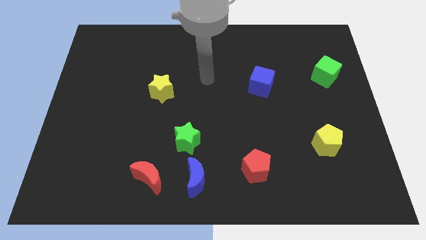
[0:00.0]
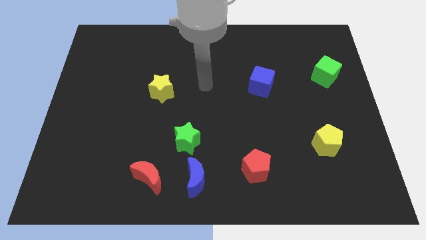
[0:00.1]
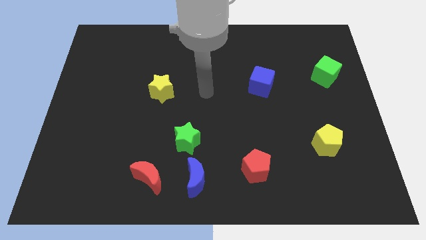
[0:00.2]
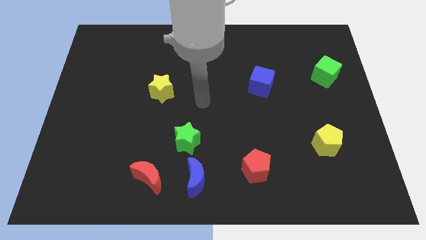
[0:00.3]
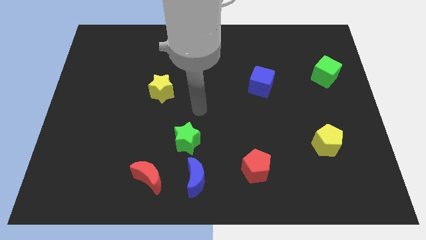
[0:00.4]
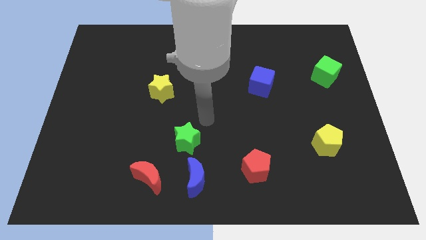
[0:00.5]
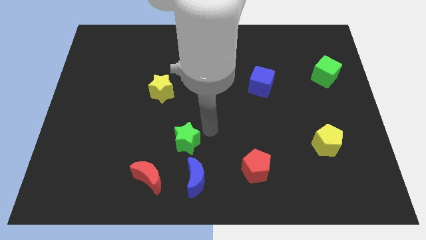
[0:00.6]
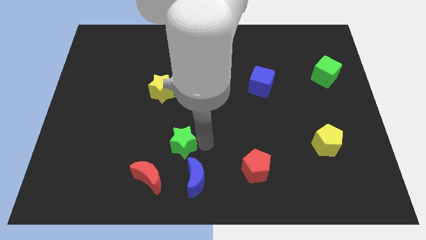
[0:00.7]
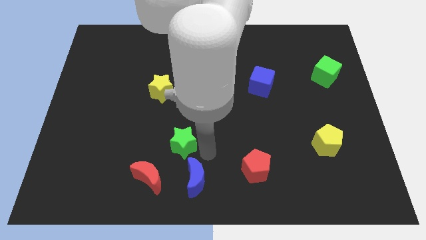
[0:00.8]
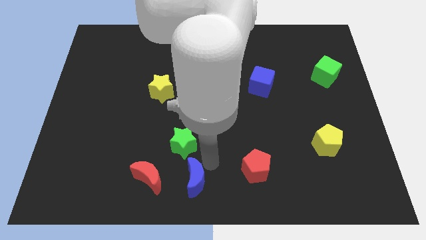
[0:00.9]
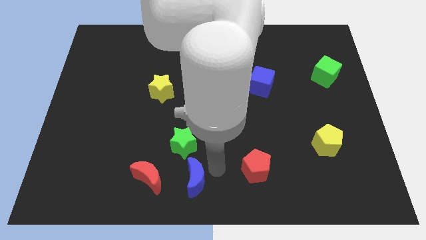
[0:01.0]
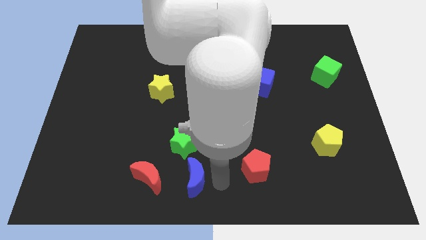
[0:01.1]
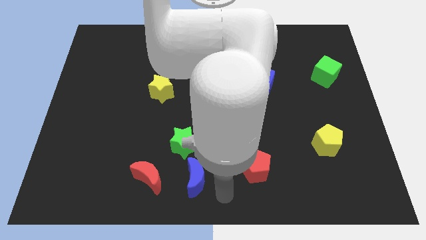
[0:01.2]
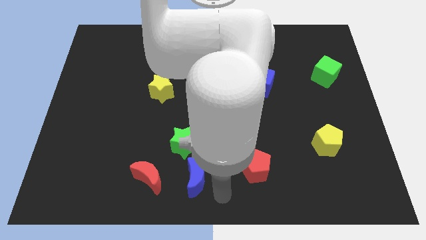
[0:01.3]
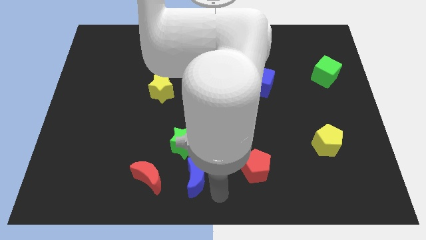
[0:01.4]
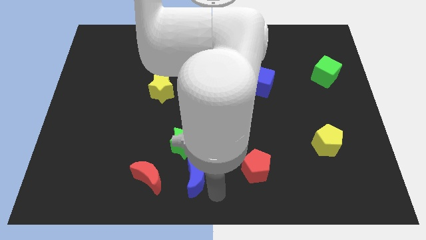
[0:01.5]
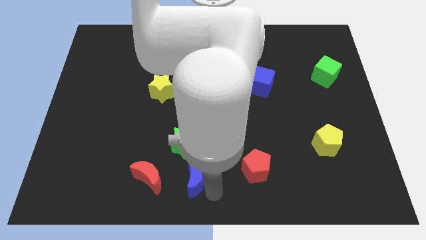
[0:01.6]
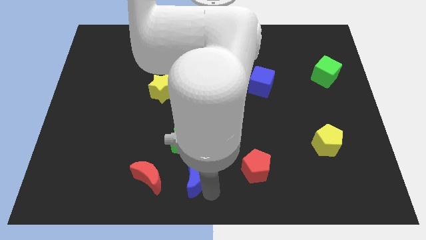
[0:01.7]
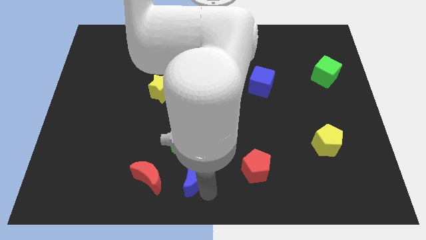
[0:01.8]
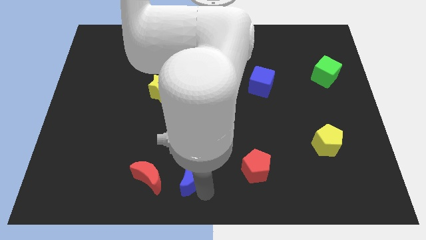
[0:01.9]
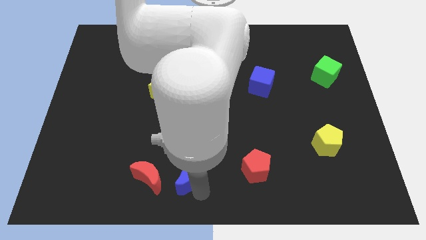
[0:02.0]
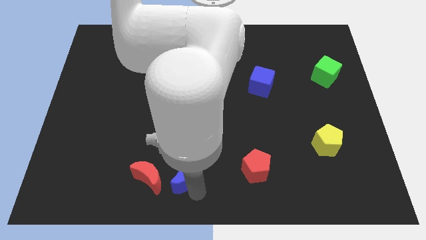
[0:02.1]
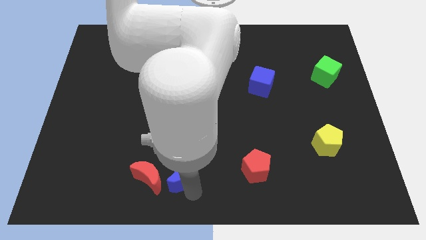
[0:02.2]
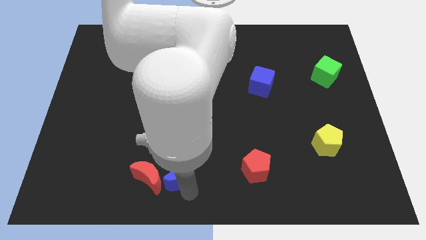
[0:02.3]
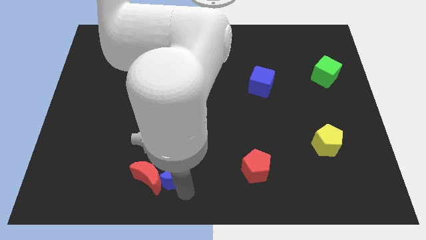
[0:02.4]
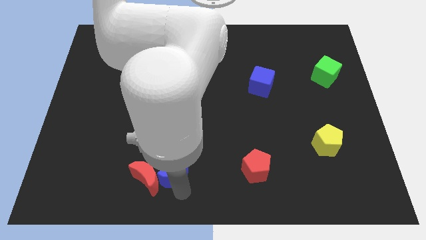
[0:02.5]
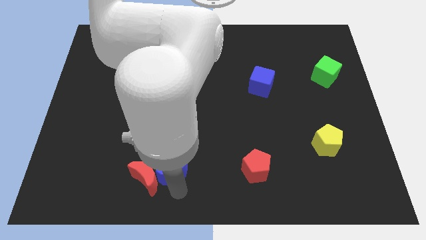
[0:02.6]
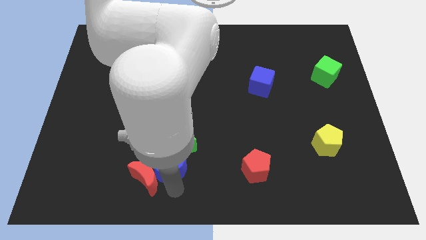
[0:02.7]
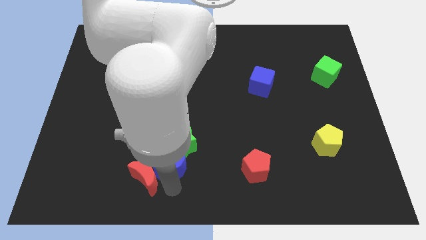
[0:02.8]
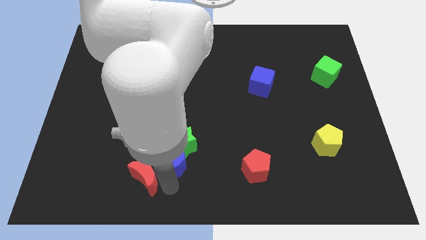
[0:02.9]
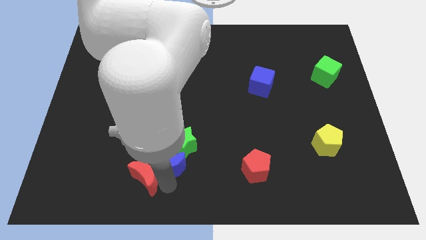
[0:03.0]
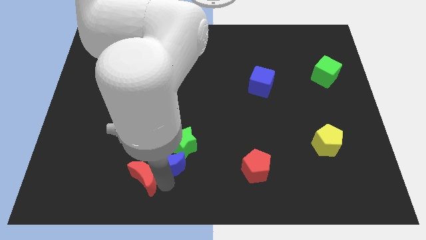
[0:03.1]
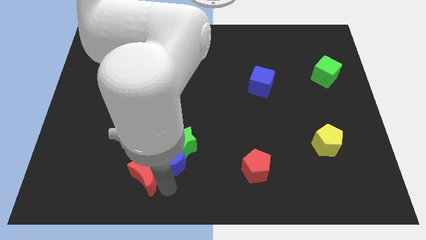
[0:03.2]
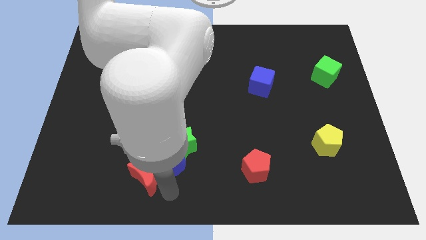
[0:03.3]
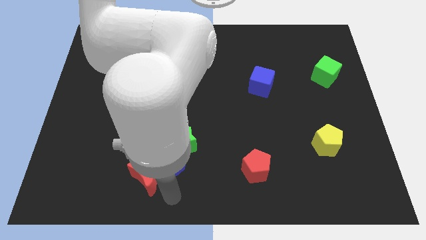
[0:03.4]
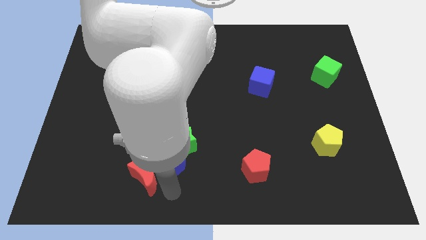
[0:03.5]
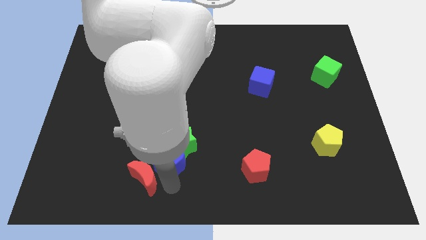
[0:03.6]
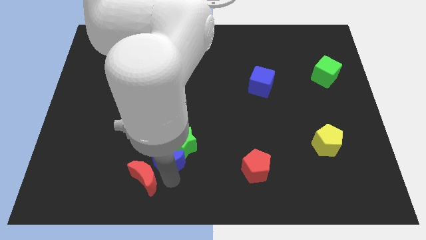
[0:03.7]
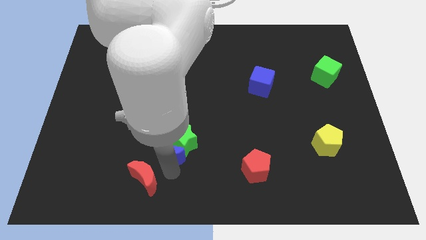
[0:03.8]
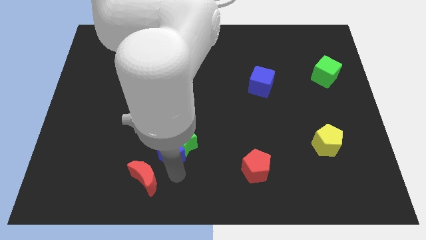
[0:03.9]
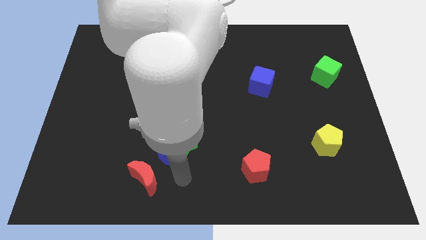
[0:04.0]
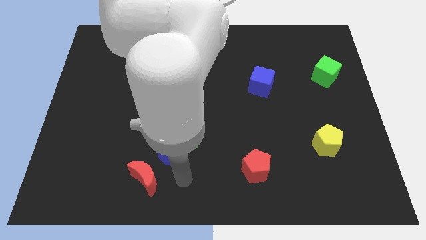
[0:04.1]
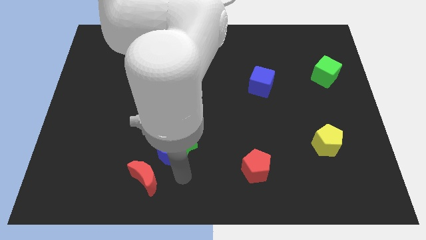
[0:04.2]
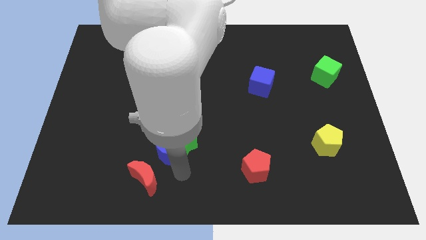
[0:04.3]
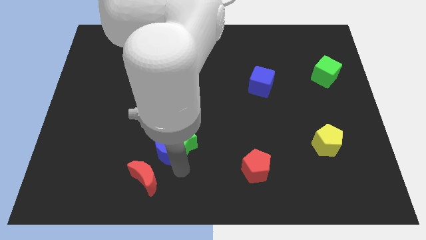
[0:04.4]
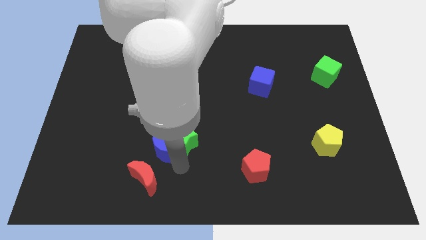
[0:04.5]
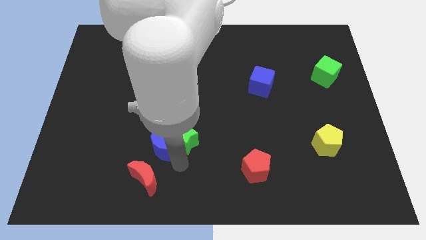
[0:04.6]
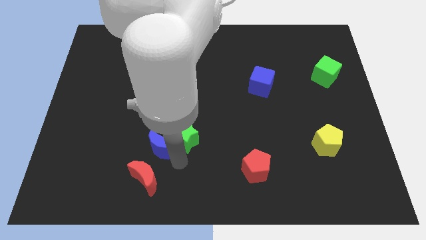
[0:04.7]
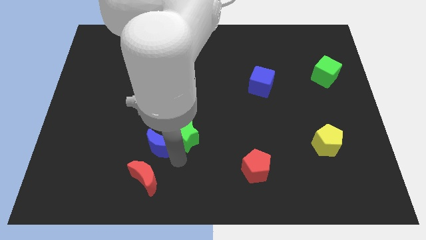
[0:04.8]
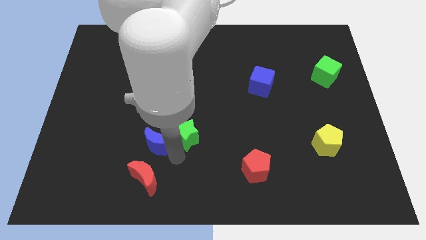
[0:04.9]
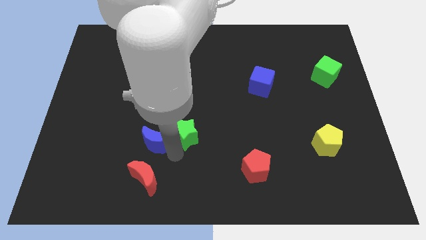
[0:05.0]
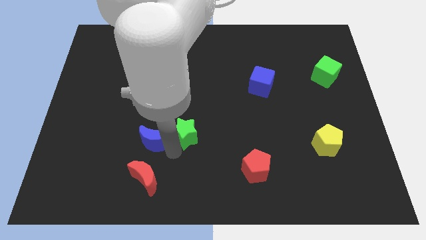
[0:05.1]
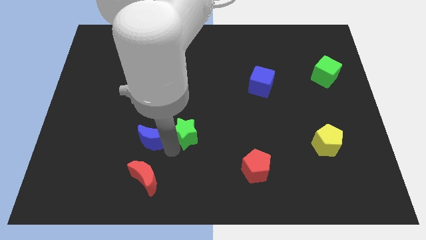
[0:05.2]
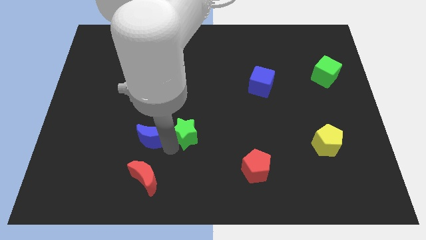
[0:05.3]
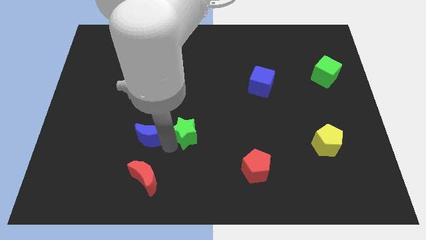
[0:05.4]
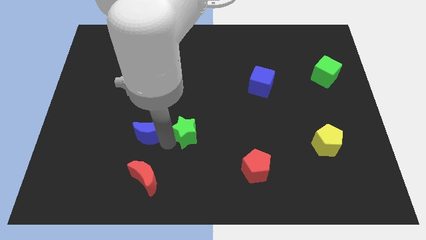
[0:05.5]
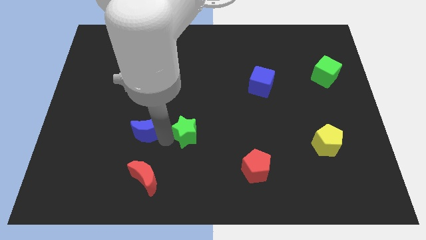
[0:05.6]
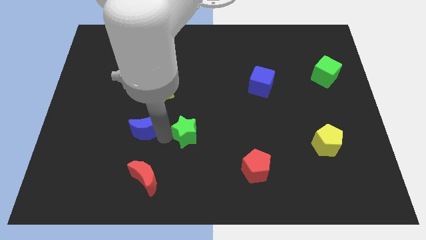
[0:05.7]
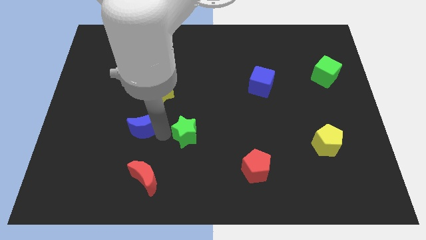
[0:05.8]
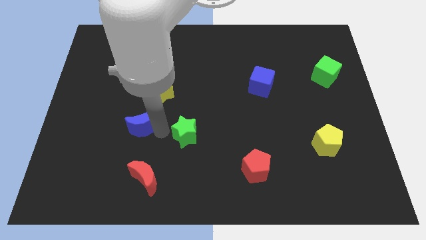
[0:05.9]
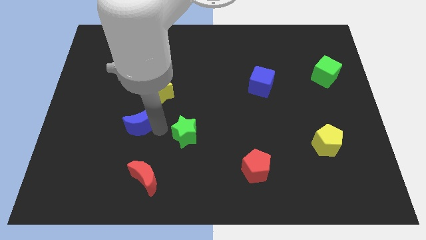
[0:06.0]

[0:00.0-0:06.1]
put the blue moon diagonally down and to the left of the yellow star
